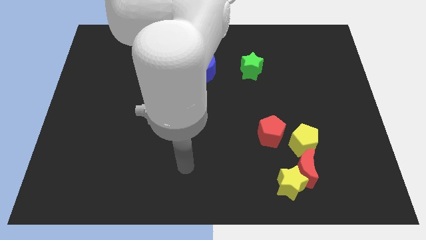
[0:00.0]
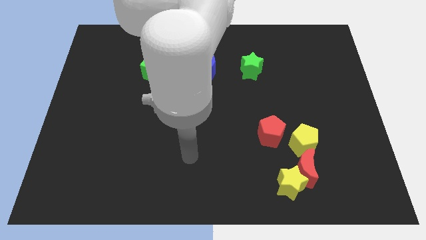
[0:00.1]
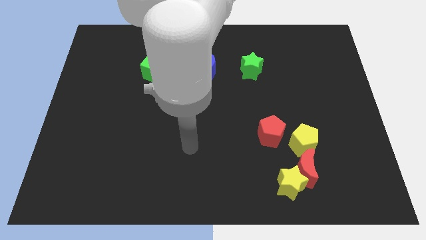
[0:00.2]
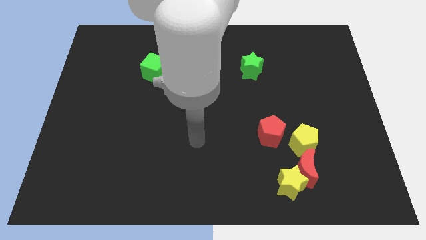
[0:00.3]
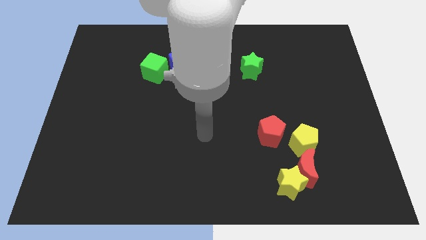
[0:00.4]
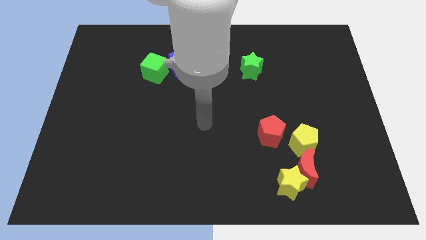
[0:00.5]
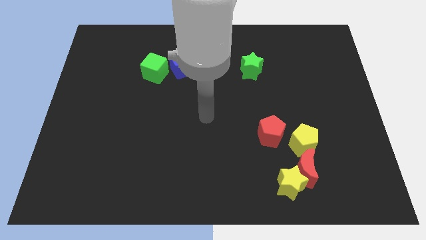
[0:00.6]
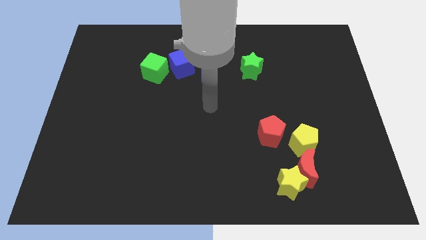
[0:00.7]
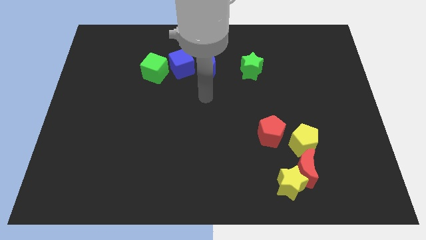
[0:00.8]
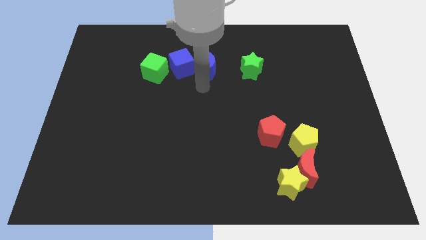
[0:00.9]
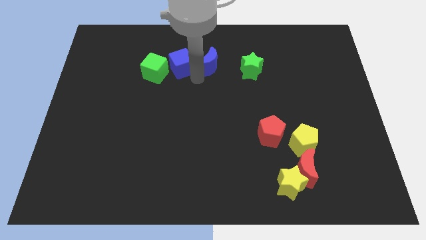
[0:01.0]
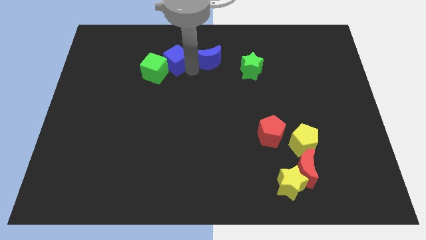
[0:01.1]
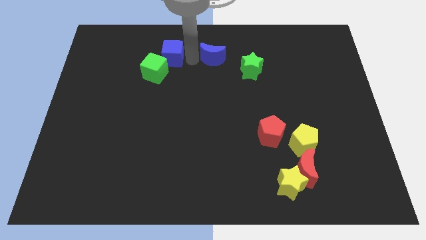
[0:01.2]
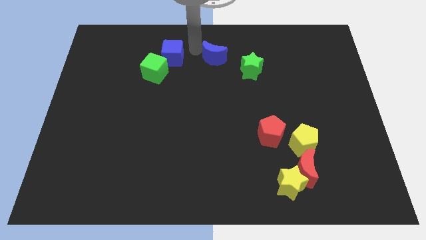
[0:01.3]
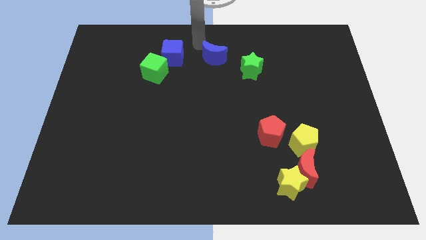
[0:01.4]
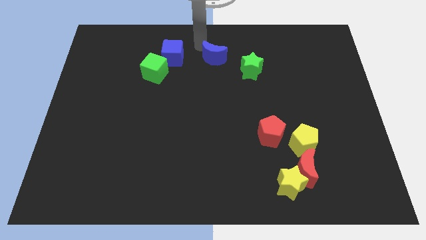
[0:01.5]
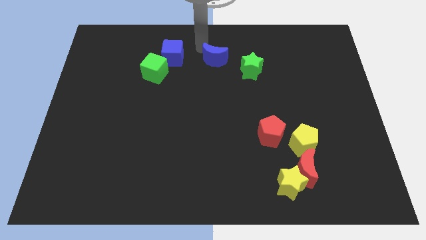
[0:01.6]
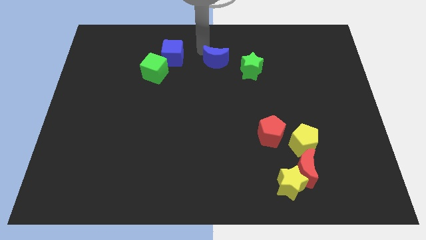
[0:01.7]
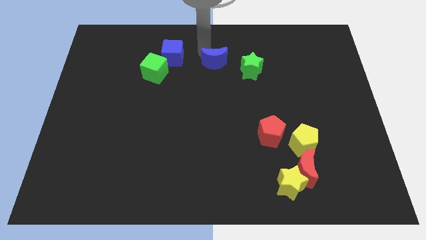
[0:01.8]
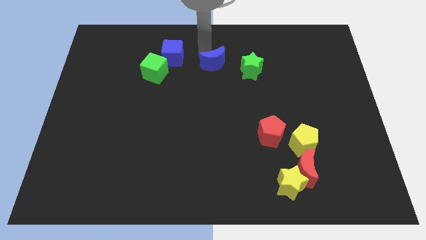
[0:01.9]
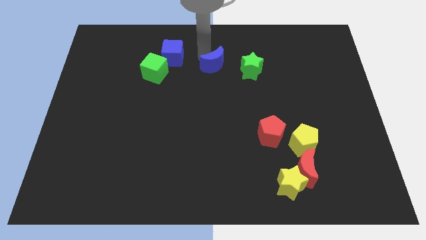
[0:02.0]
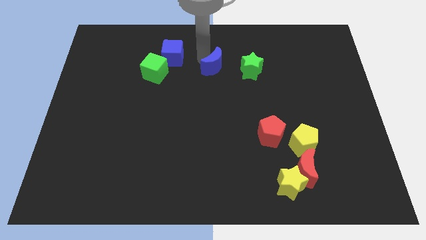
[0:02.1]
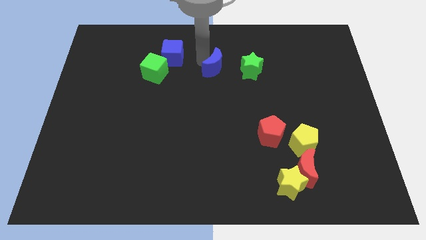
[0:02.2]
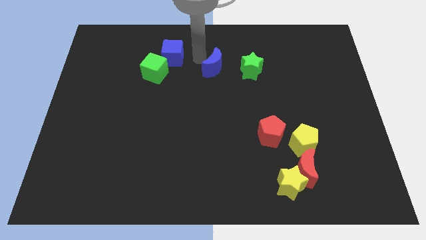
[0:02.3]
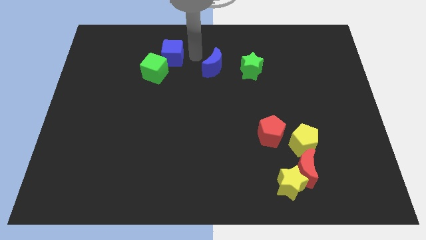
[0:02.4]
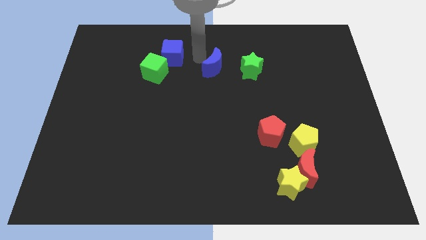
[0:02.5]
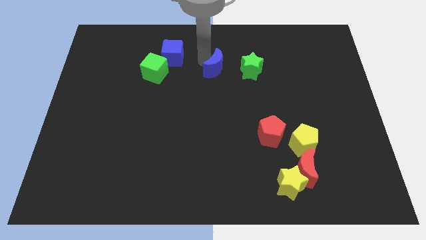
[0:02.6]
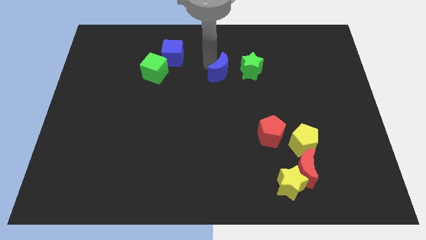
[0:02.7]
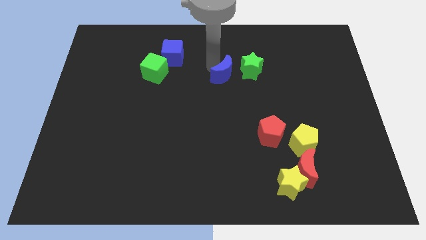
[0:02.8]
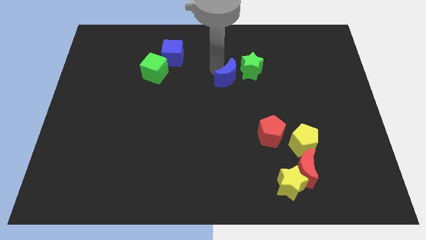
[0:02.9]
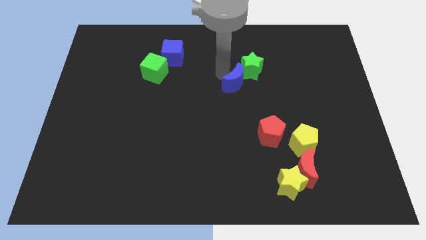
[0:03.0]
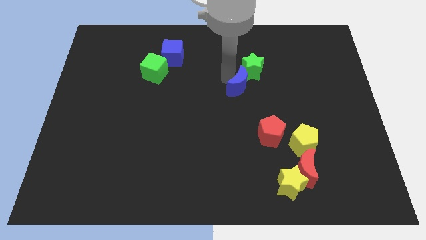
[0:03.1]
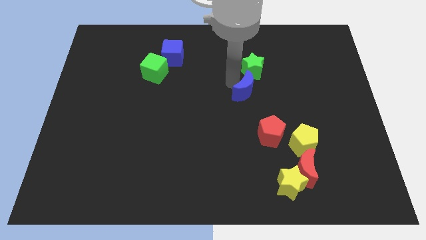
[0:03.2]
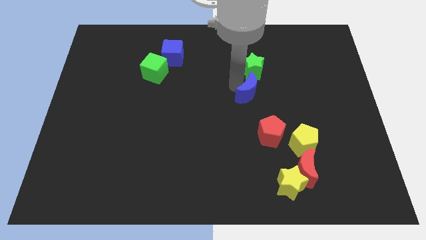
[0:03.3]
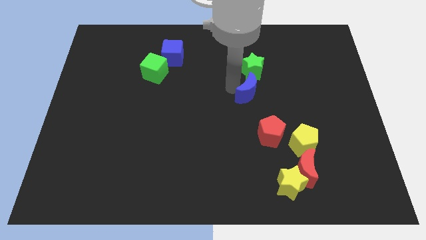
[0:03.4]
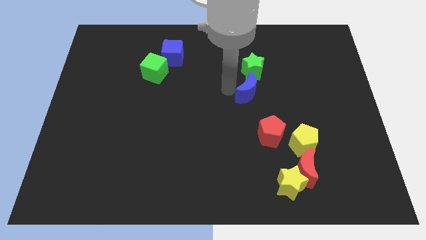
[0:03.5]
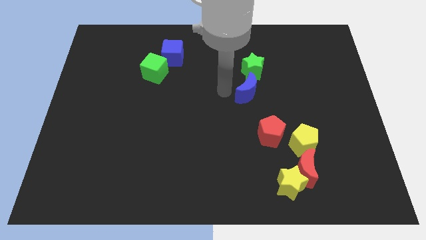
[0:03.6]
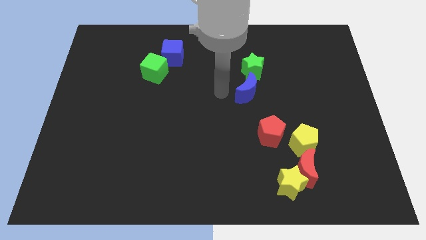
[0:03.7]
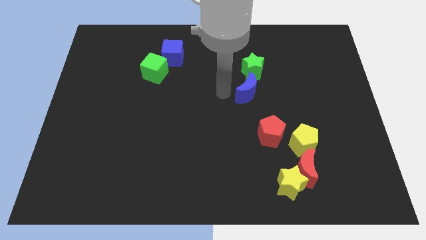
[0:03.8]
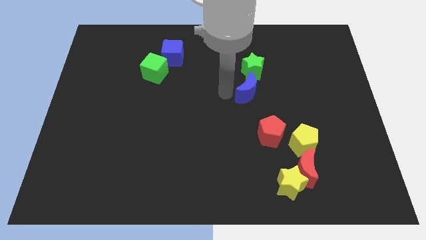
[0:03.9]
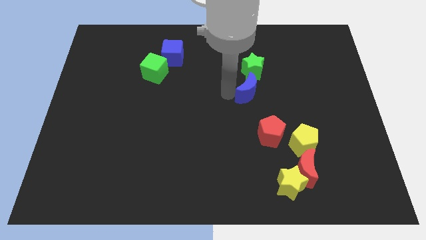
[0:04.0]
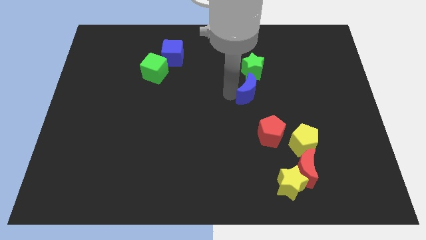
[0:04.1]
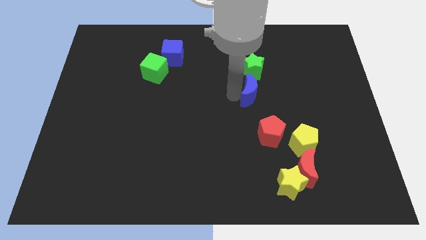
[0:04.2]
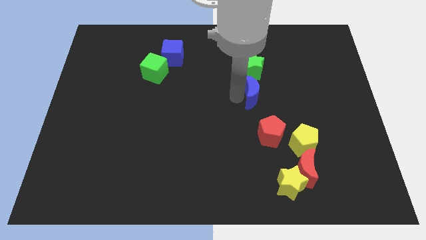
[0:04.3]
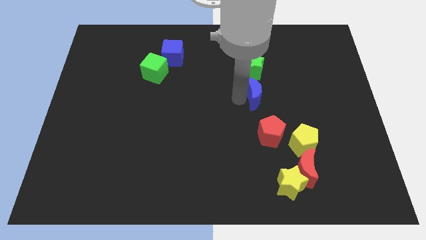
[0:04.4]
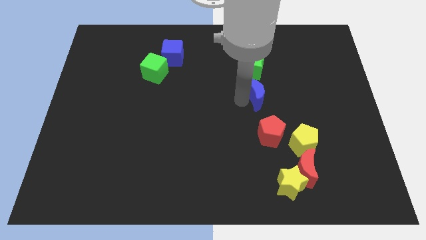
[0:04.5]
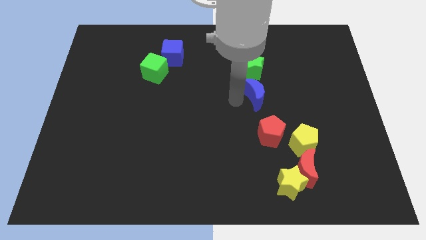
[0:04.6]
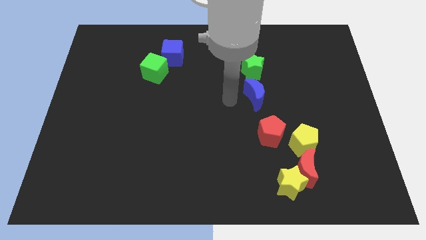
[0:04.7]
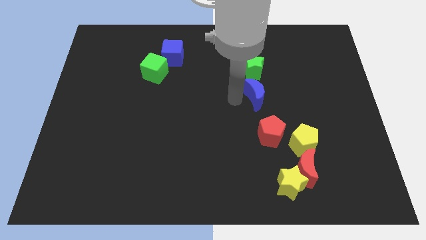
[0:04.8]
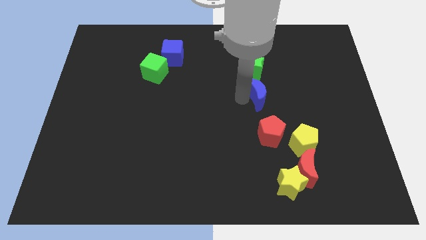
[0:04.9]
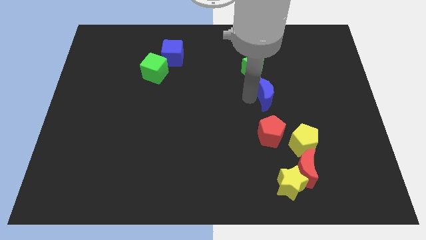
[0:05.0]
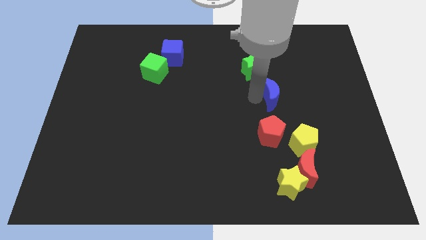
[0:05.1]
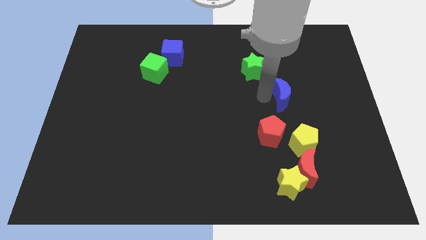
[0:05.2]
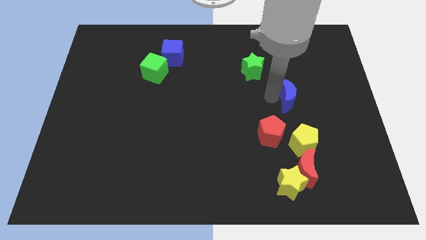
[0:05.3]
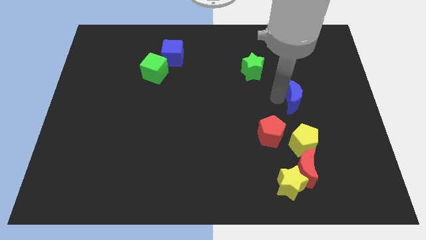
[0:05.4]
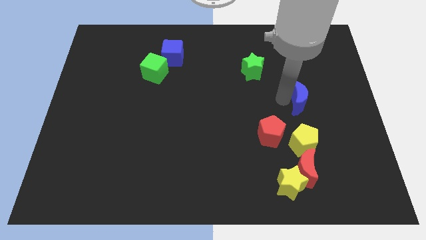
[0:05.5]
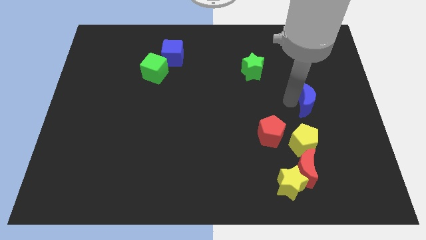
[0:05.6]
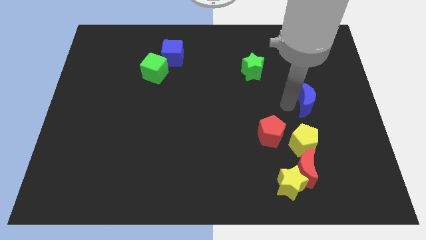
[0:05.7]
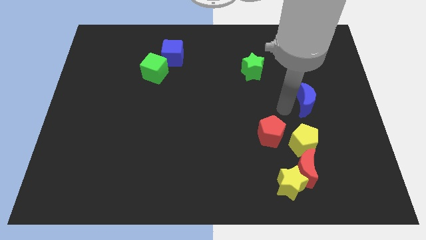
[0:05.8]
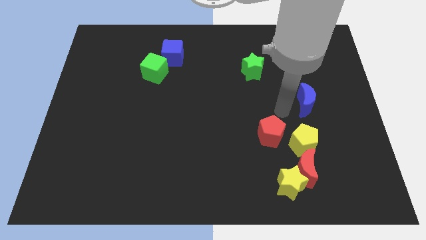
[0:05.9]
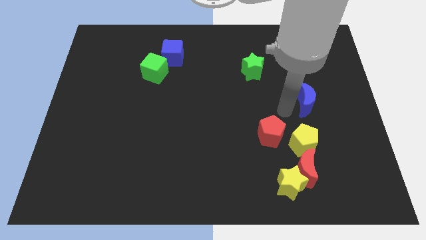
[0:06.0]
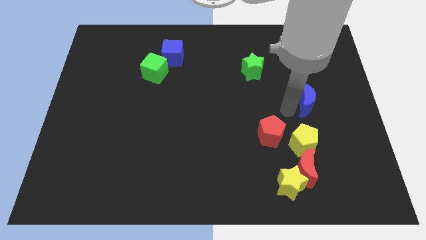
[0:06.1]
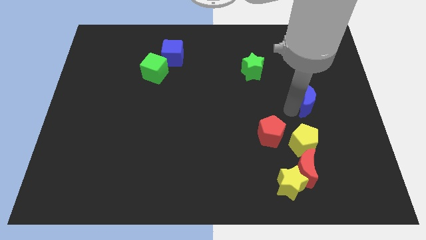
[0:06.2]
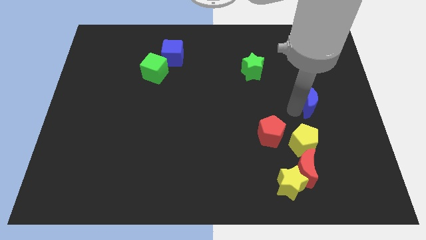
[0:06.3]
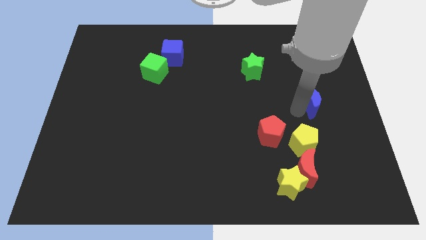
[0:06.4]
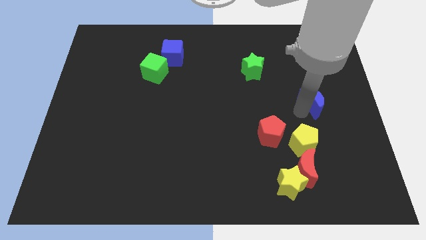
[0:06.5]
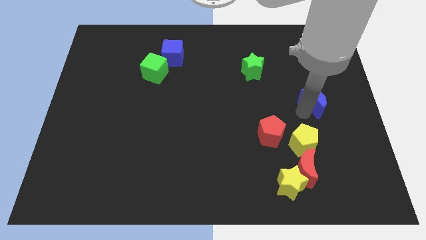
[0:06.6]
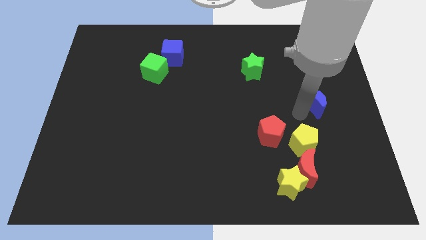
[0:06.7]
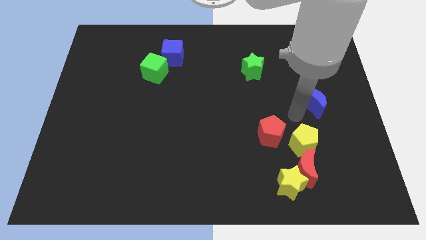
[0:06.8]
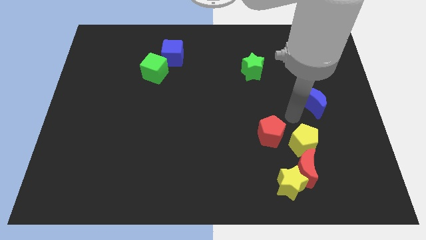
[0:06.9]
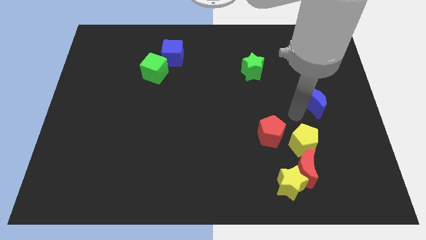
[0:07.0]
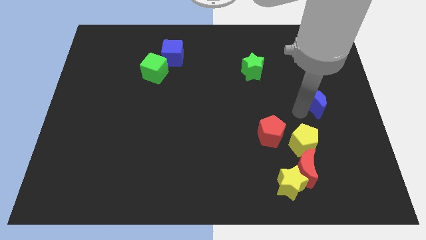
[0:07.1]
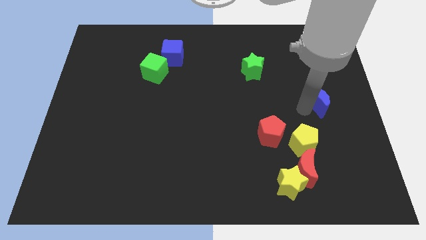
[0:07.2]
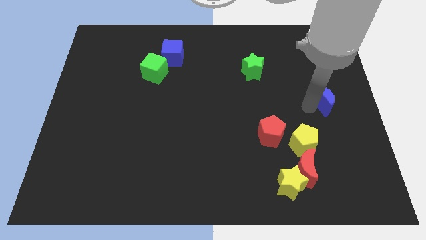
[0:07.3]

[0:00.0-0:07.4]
move the blue moon to the right side of the board
